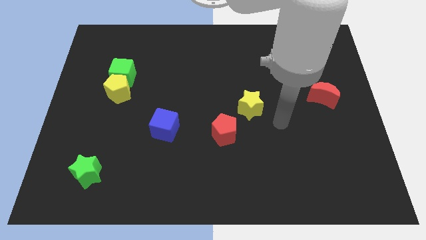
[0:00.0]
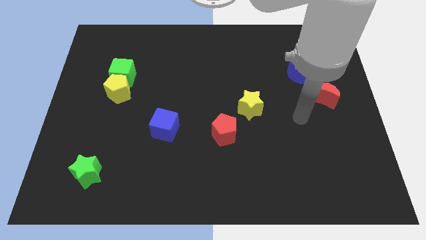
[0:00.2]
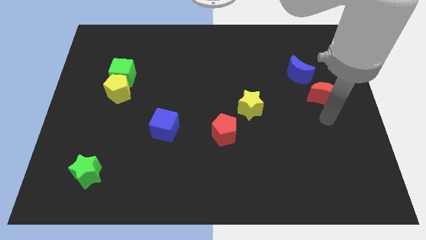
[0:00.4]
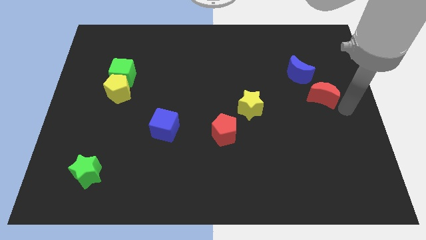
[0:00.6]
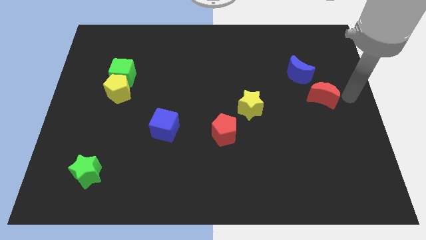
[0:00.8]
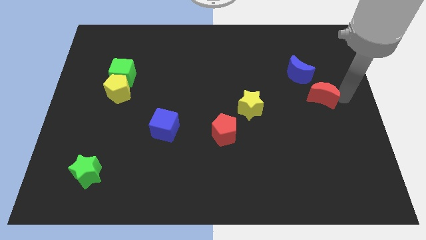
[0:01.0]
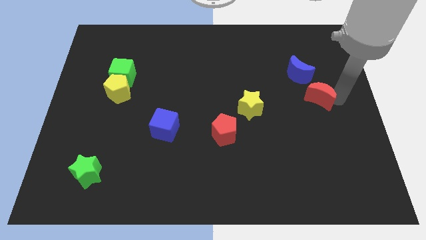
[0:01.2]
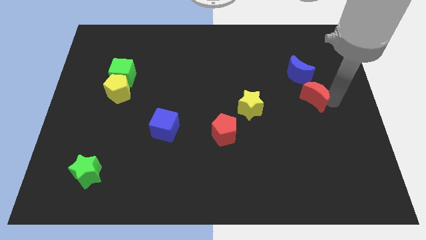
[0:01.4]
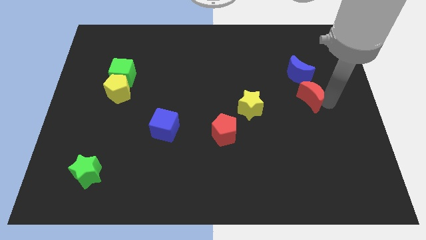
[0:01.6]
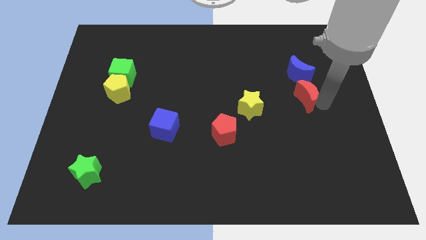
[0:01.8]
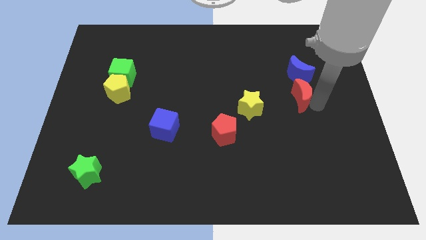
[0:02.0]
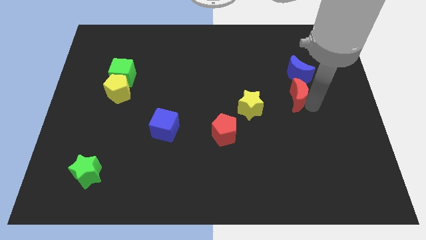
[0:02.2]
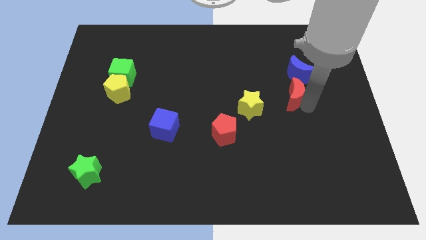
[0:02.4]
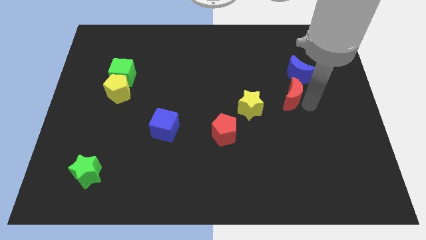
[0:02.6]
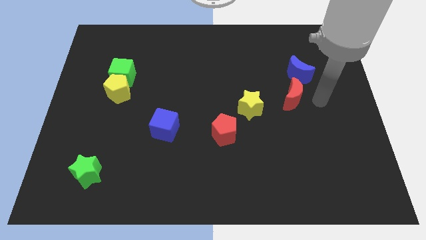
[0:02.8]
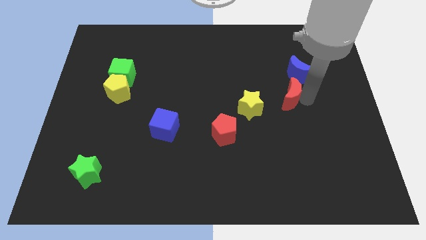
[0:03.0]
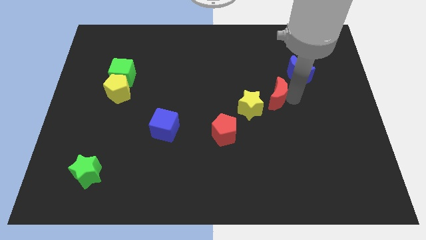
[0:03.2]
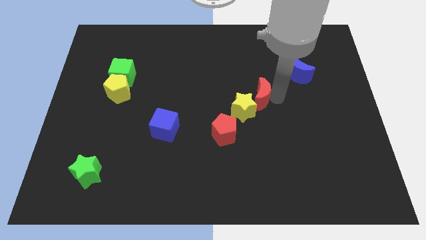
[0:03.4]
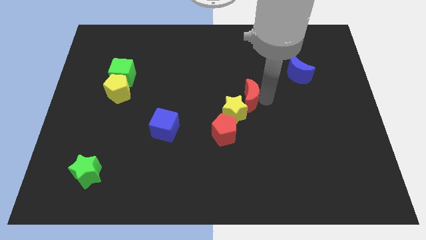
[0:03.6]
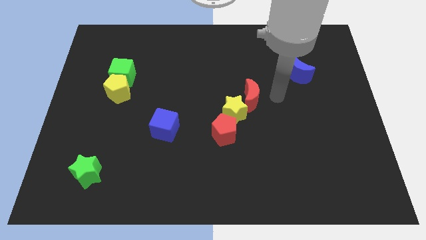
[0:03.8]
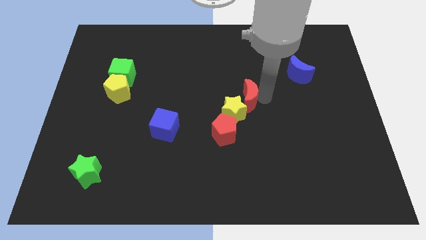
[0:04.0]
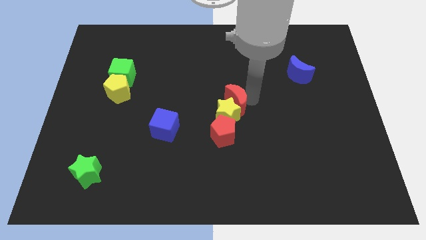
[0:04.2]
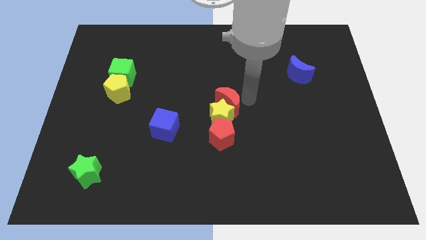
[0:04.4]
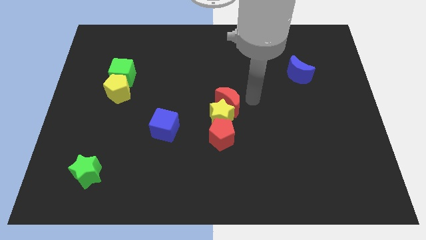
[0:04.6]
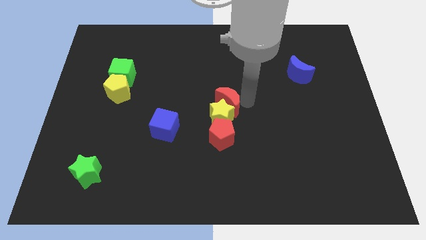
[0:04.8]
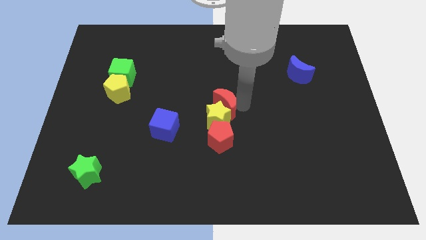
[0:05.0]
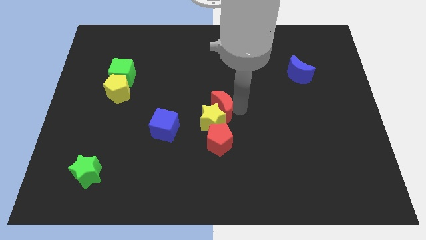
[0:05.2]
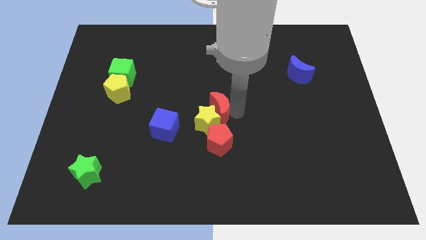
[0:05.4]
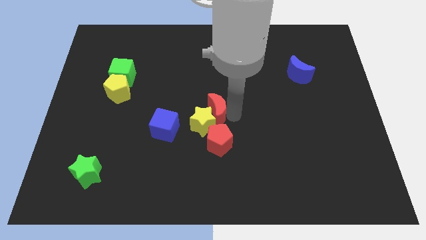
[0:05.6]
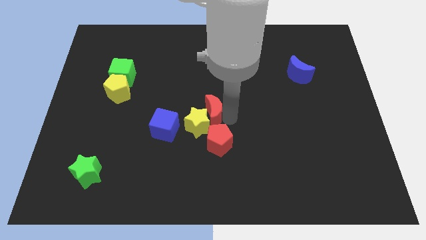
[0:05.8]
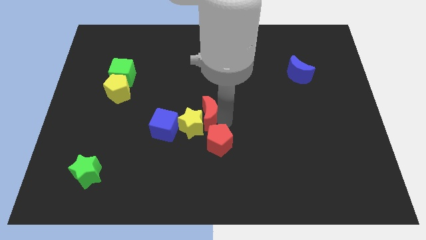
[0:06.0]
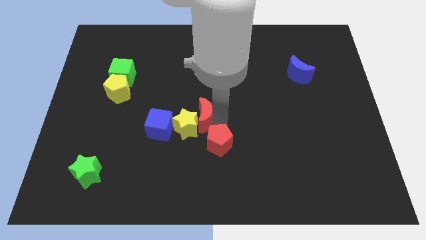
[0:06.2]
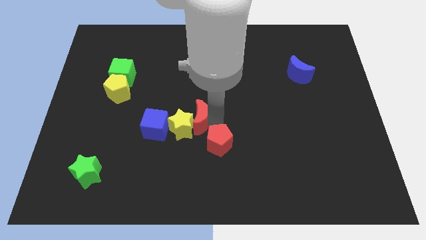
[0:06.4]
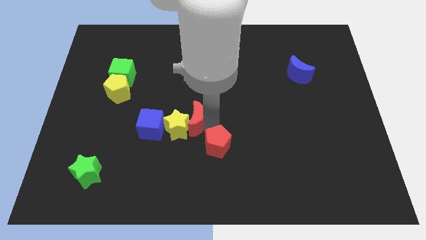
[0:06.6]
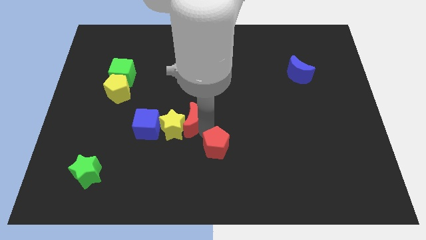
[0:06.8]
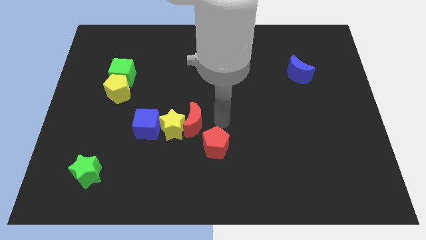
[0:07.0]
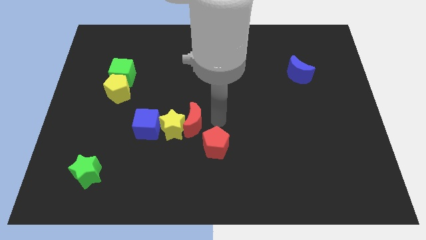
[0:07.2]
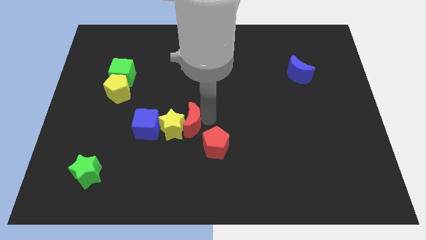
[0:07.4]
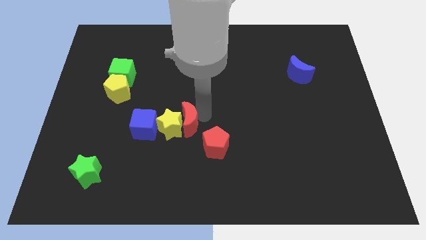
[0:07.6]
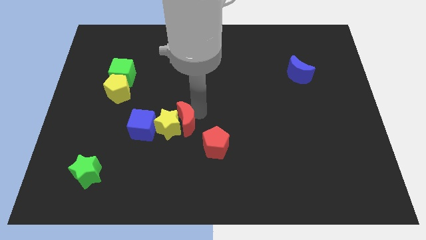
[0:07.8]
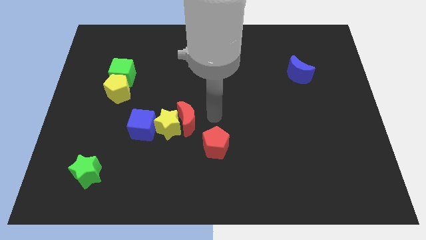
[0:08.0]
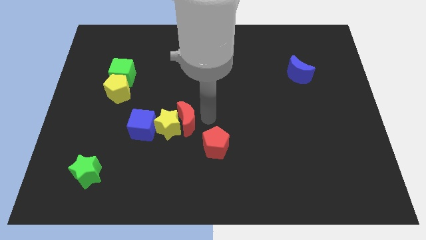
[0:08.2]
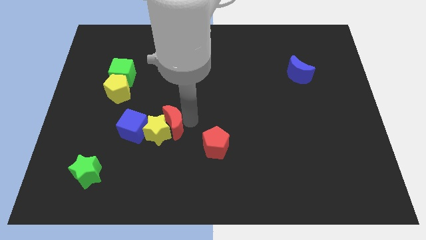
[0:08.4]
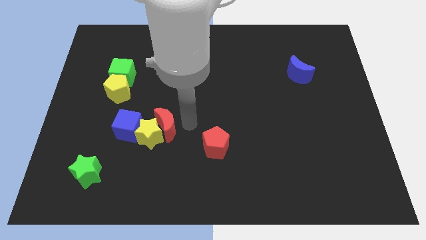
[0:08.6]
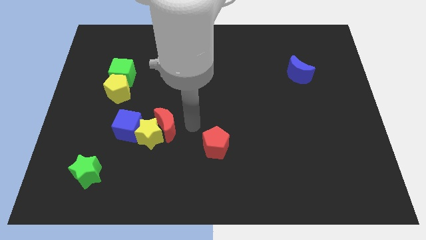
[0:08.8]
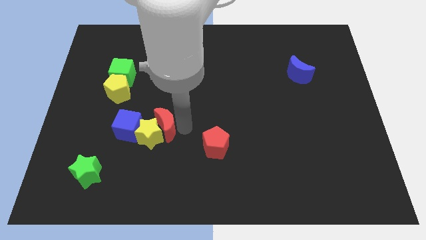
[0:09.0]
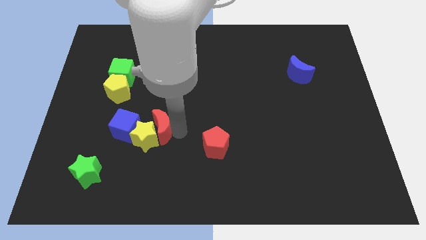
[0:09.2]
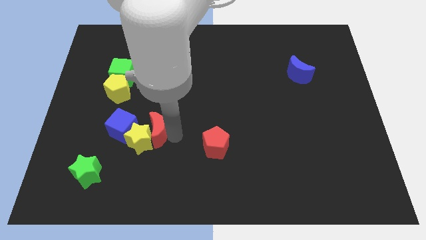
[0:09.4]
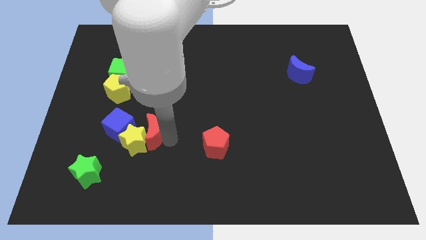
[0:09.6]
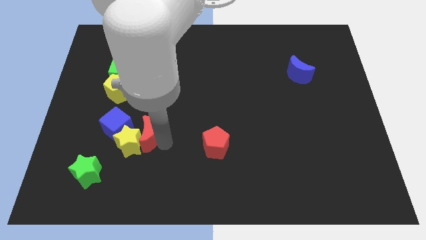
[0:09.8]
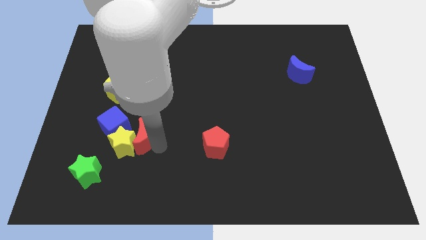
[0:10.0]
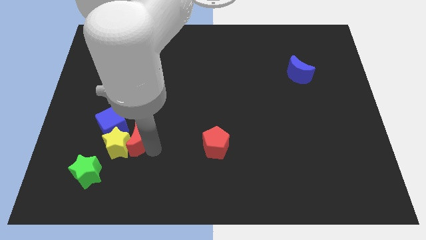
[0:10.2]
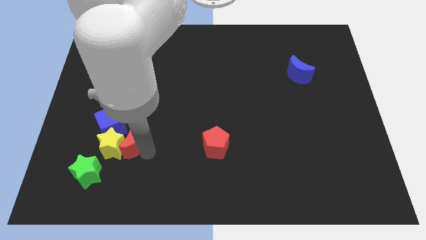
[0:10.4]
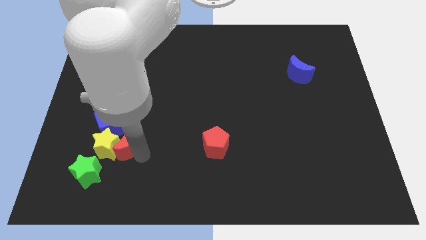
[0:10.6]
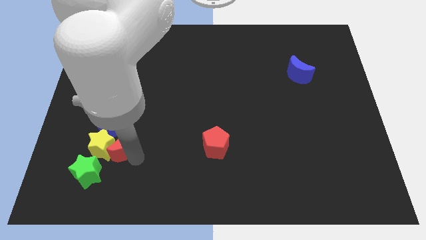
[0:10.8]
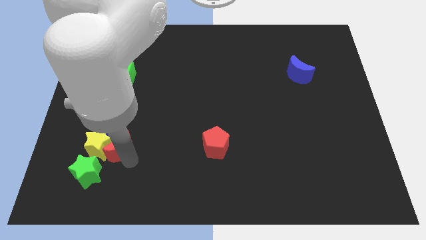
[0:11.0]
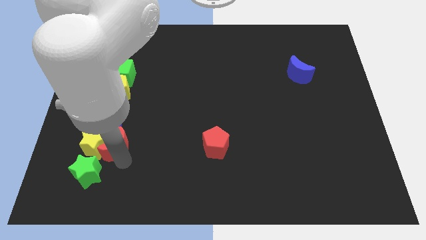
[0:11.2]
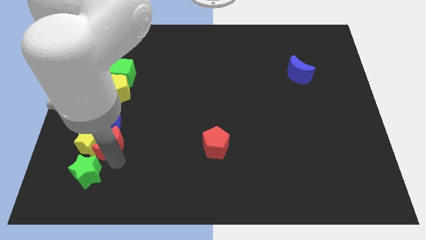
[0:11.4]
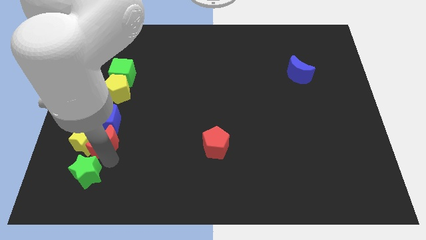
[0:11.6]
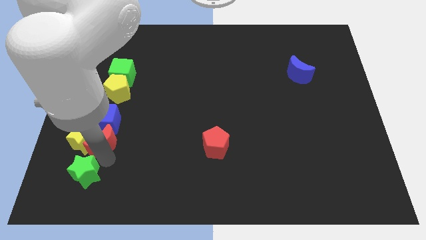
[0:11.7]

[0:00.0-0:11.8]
put the red moon next to the blue cube

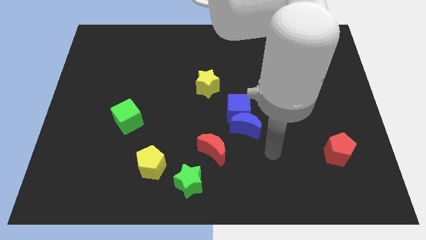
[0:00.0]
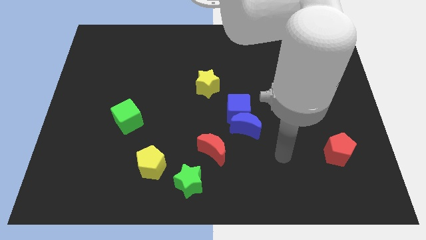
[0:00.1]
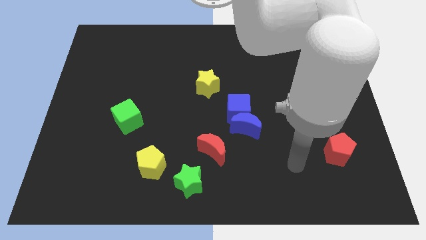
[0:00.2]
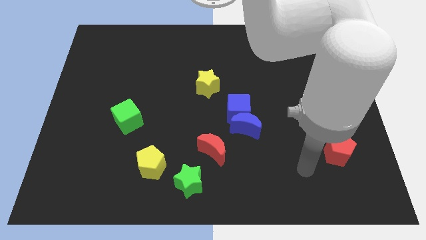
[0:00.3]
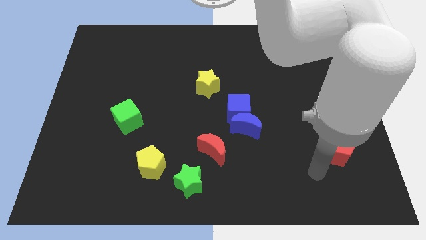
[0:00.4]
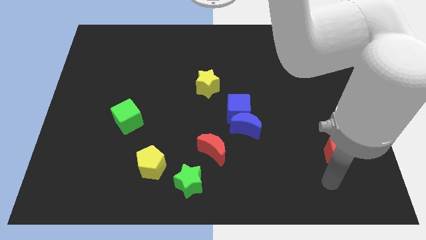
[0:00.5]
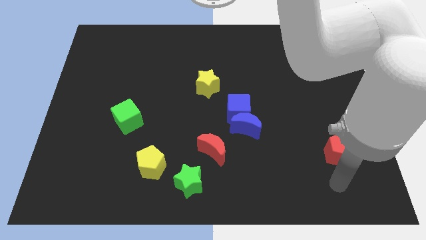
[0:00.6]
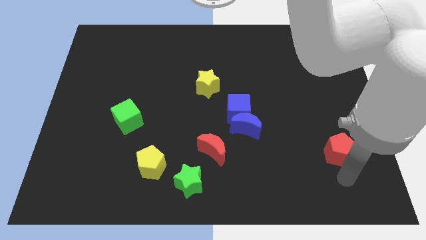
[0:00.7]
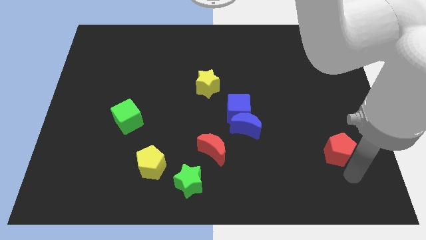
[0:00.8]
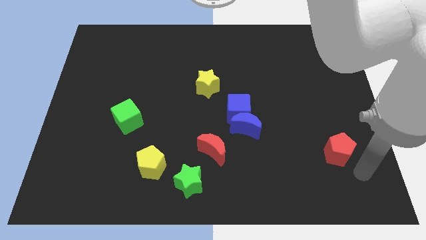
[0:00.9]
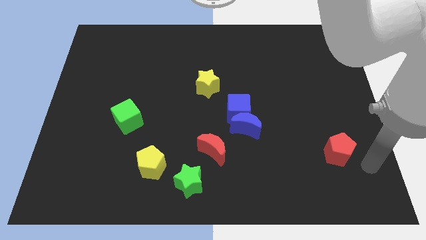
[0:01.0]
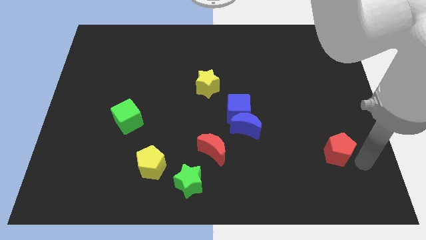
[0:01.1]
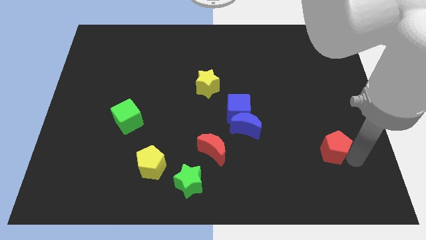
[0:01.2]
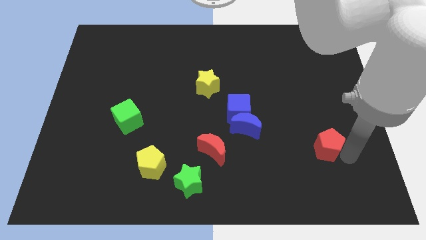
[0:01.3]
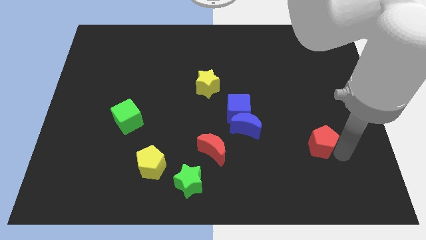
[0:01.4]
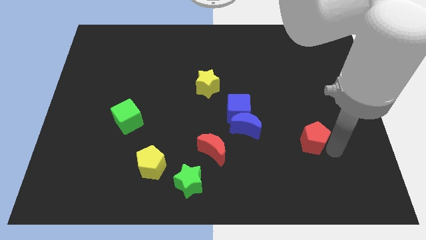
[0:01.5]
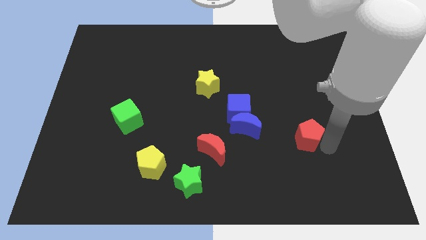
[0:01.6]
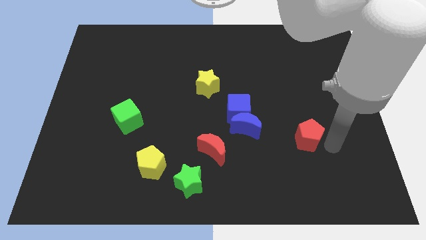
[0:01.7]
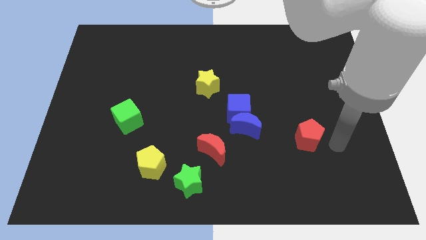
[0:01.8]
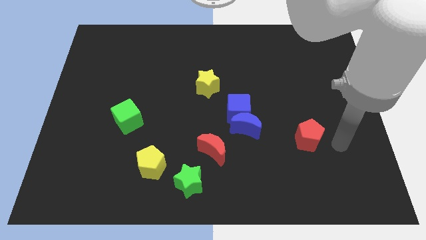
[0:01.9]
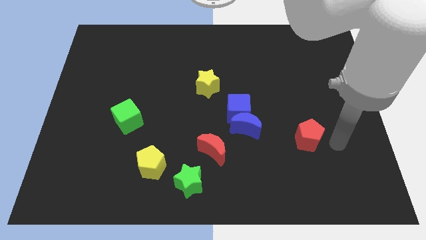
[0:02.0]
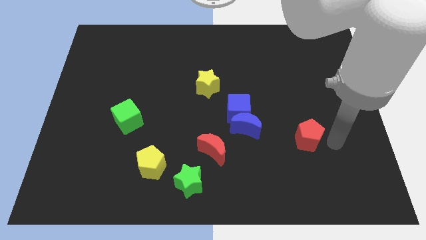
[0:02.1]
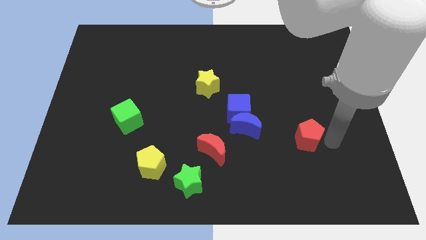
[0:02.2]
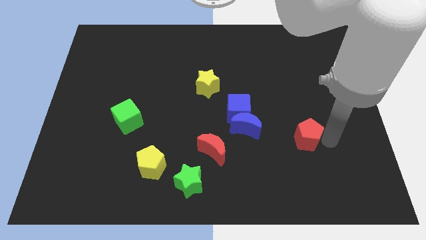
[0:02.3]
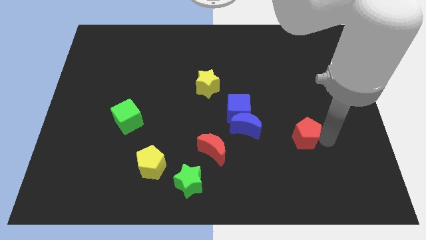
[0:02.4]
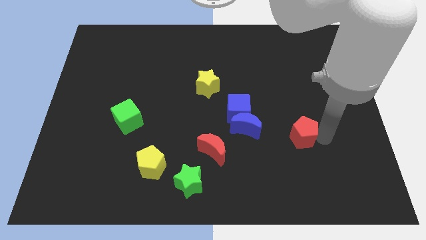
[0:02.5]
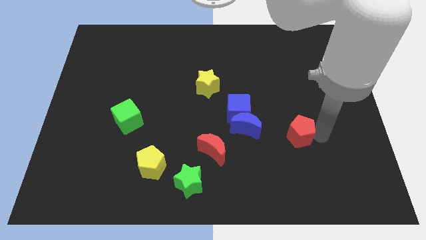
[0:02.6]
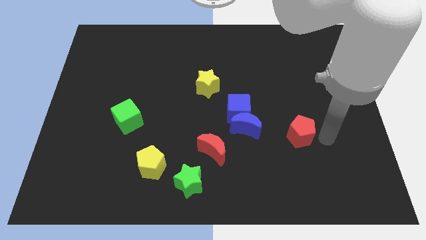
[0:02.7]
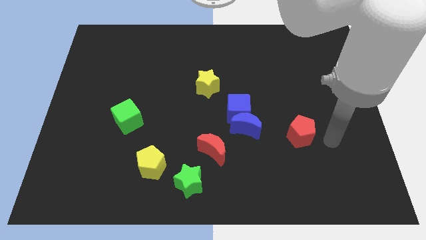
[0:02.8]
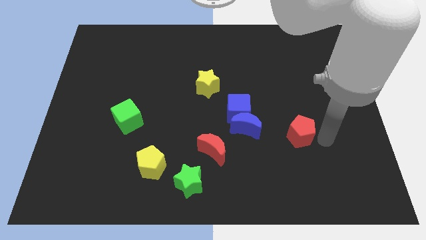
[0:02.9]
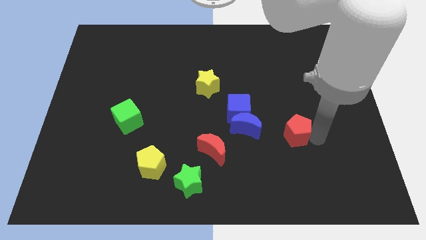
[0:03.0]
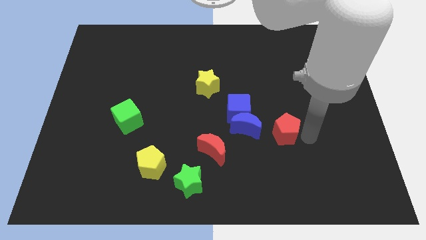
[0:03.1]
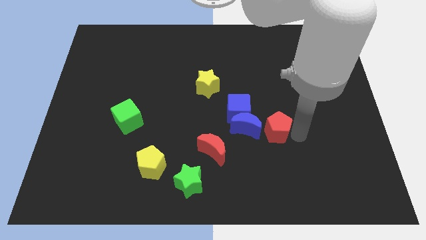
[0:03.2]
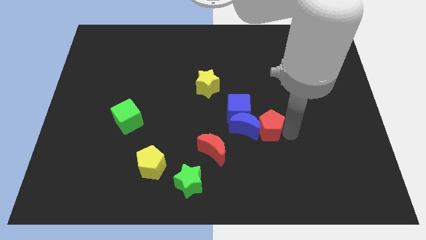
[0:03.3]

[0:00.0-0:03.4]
slide the red pentagon to the blue moon
